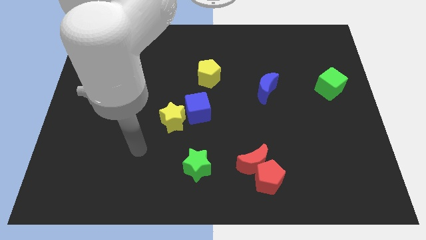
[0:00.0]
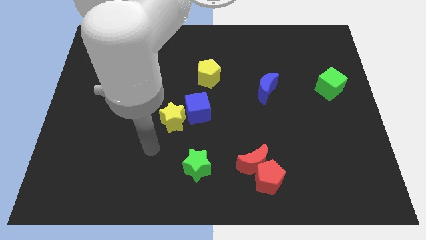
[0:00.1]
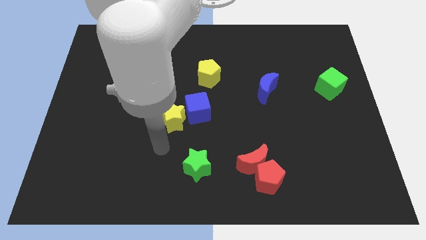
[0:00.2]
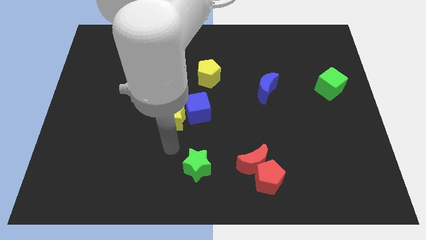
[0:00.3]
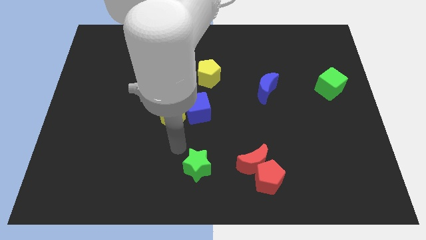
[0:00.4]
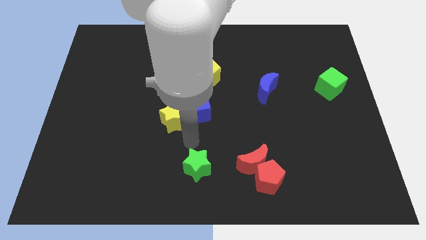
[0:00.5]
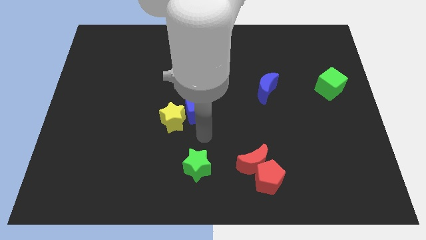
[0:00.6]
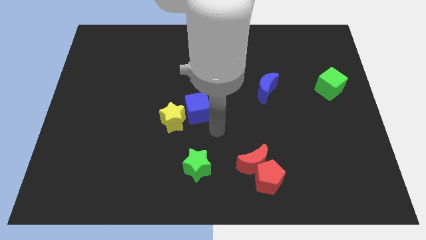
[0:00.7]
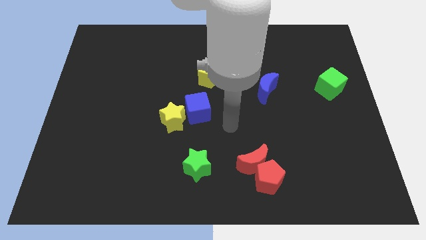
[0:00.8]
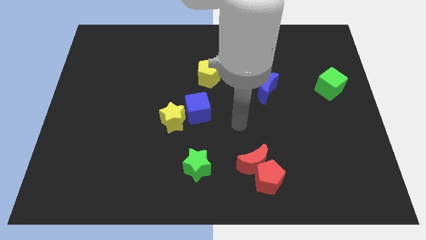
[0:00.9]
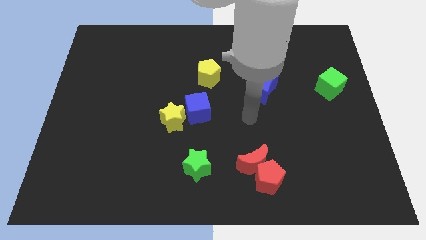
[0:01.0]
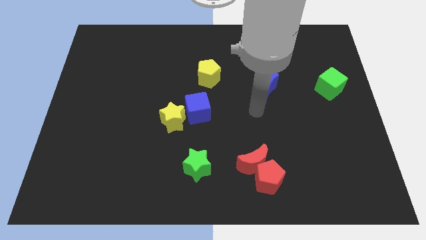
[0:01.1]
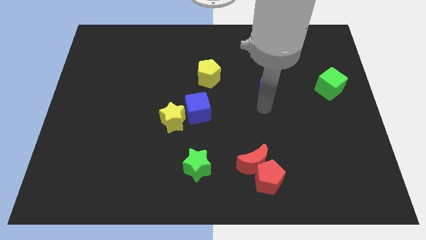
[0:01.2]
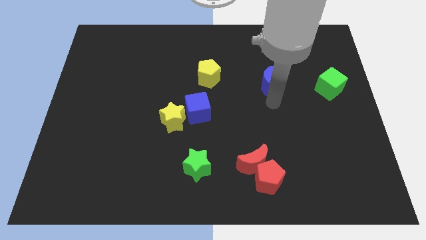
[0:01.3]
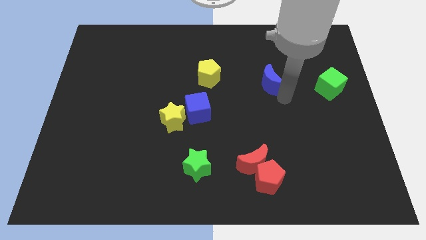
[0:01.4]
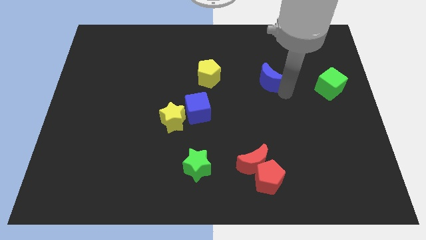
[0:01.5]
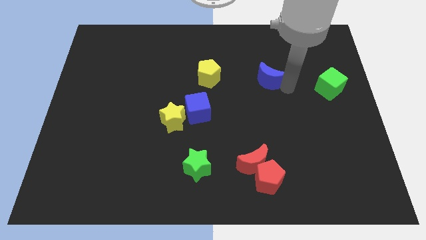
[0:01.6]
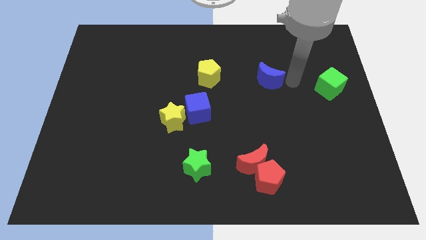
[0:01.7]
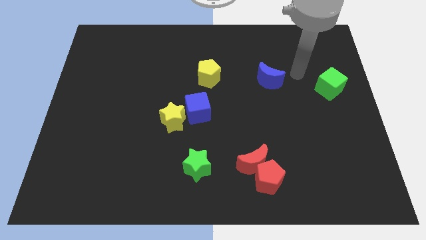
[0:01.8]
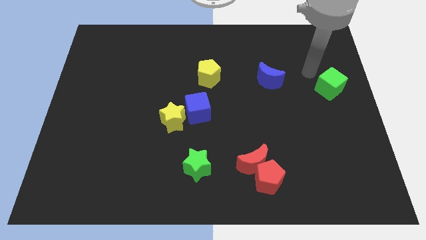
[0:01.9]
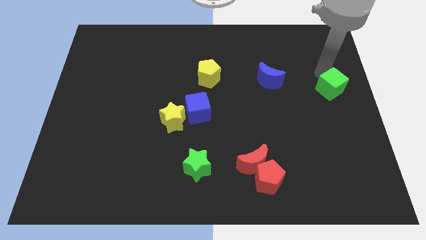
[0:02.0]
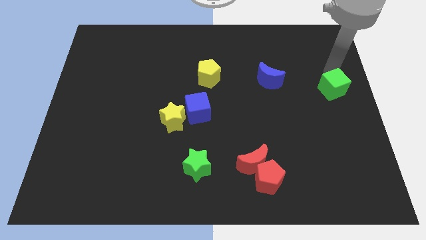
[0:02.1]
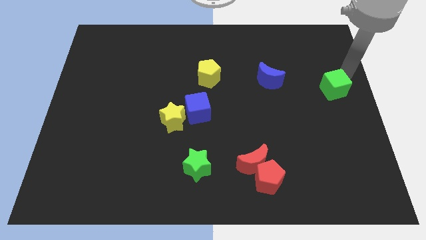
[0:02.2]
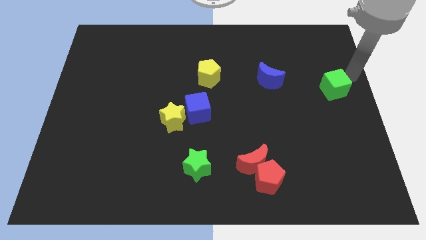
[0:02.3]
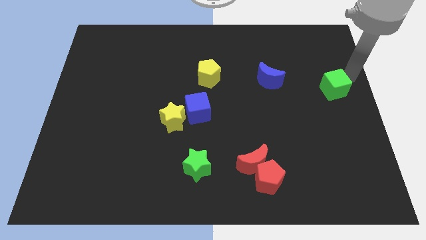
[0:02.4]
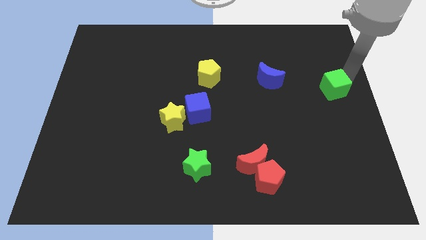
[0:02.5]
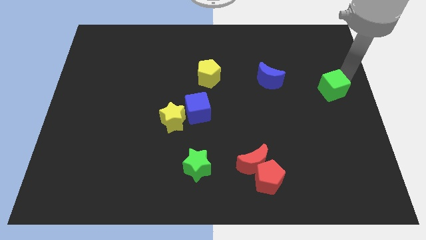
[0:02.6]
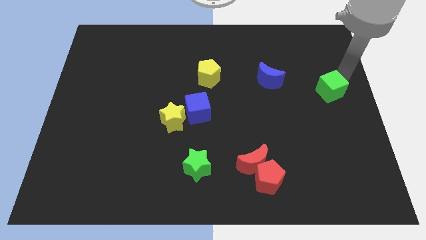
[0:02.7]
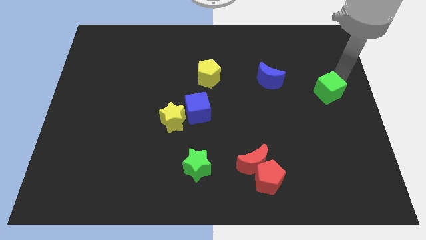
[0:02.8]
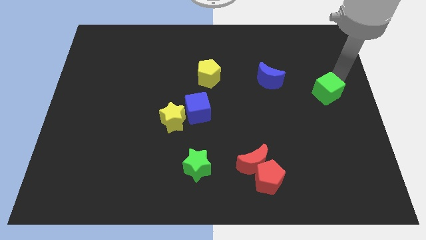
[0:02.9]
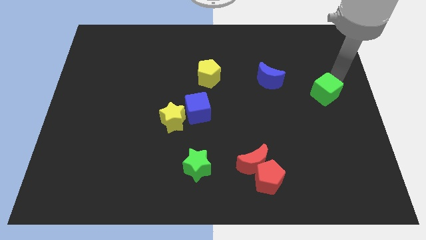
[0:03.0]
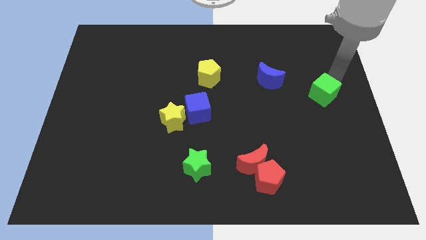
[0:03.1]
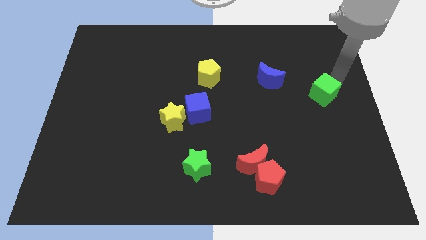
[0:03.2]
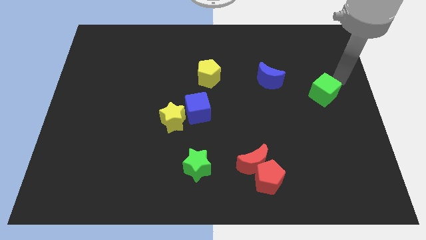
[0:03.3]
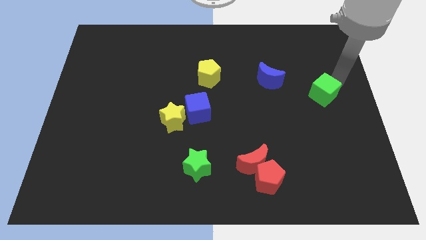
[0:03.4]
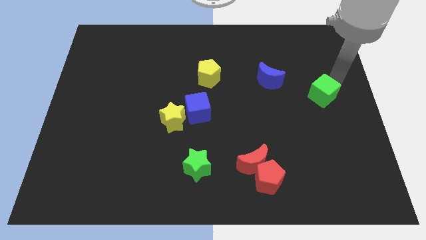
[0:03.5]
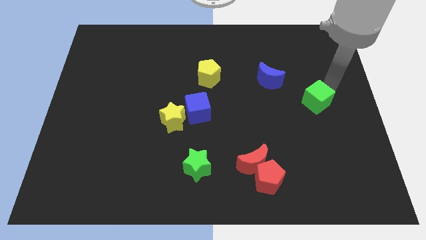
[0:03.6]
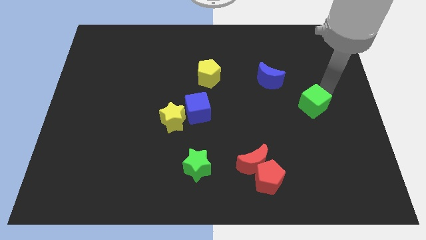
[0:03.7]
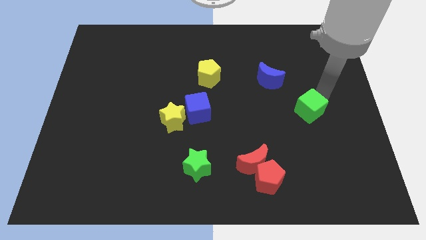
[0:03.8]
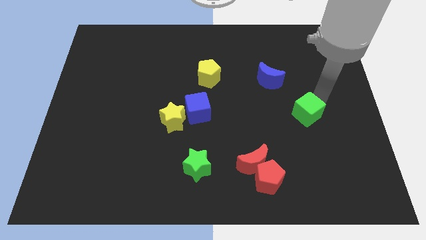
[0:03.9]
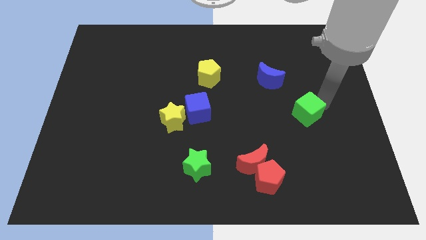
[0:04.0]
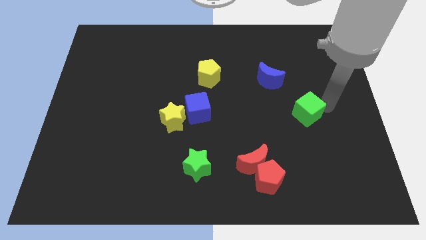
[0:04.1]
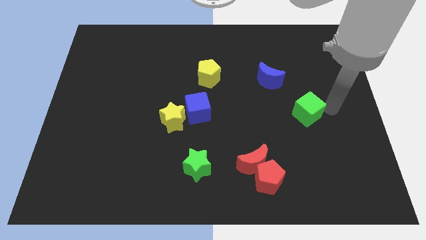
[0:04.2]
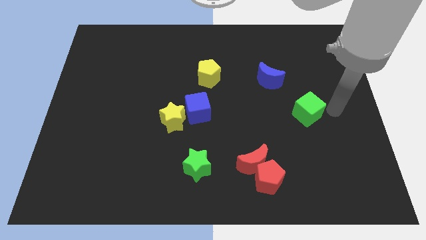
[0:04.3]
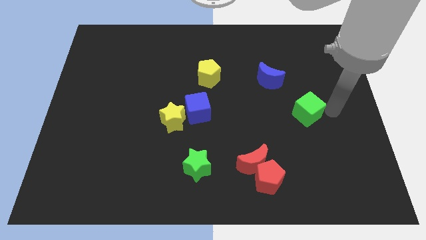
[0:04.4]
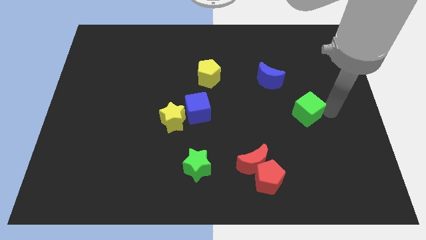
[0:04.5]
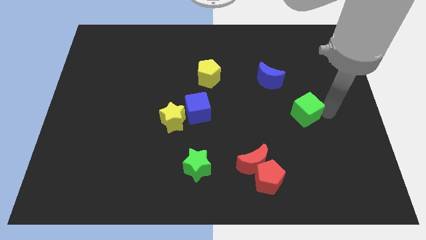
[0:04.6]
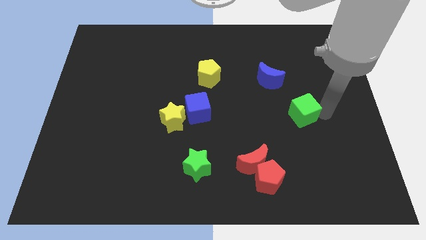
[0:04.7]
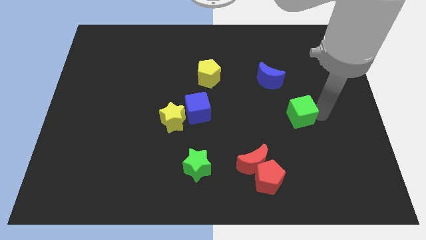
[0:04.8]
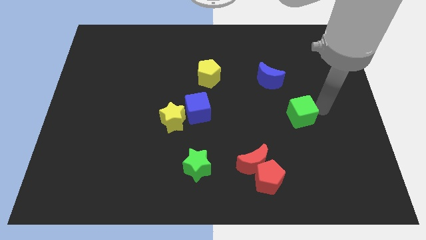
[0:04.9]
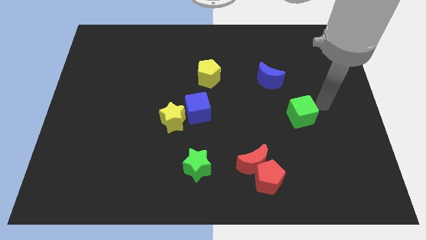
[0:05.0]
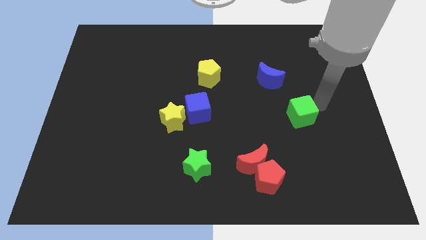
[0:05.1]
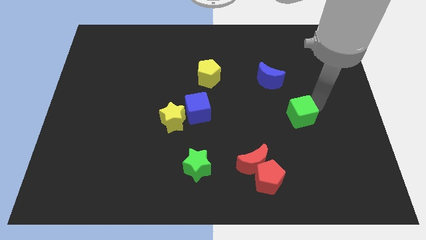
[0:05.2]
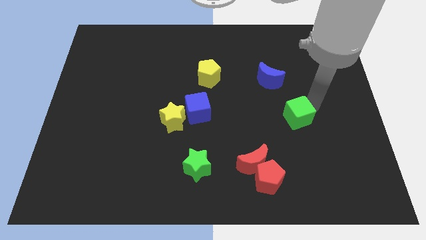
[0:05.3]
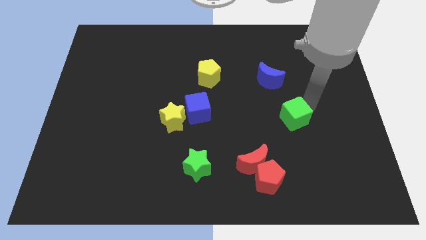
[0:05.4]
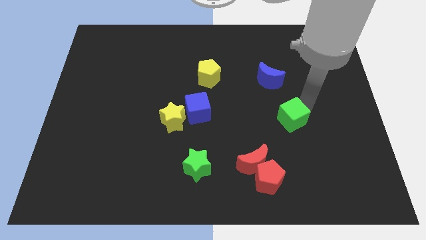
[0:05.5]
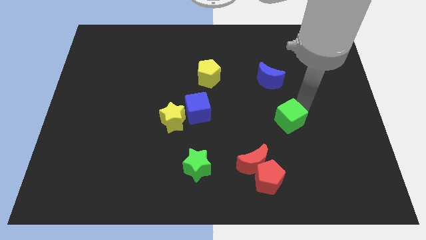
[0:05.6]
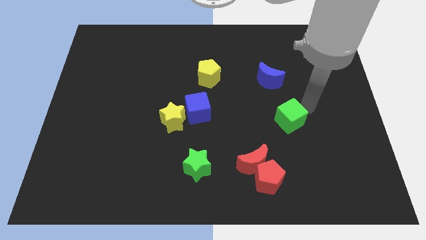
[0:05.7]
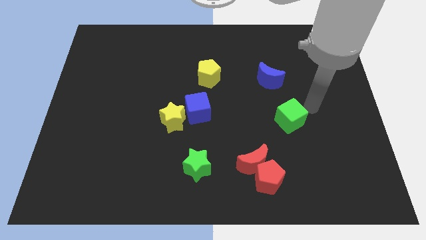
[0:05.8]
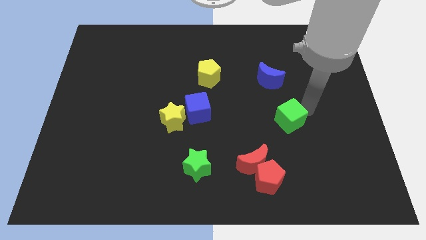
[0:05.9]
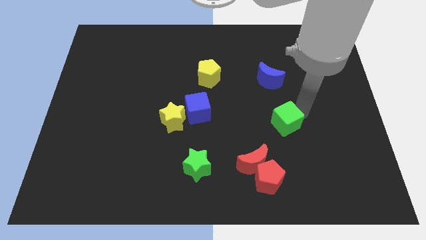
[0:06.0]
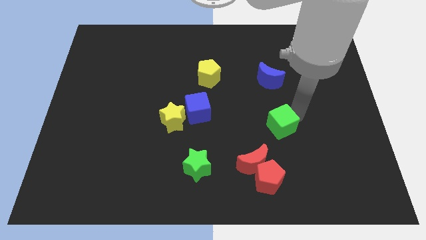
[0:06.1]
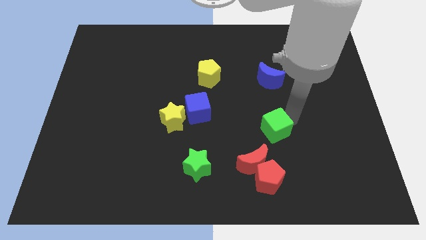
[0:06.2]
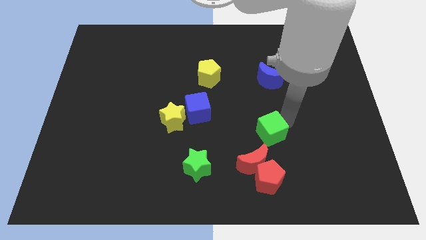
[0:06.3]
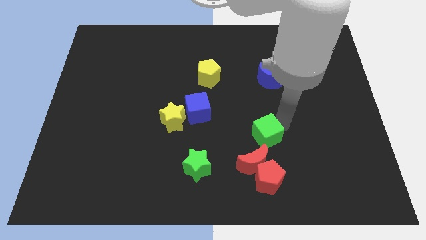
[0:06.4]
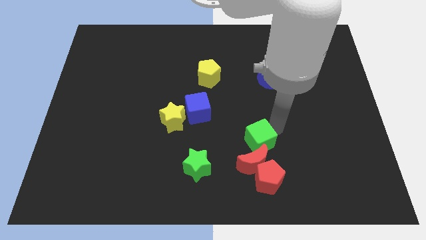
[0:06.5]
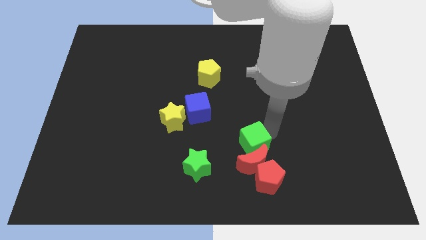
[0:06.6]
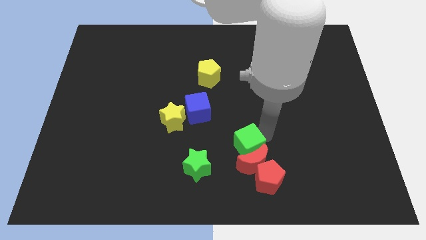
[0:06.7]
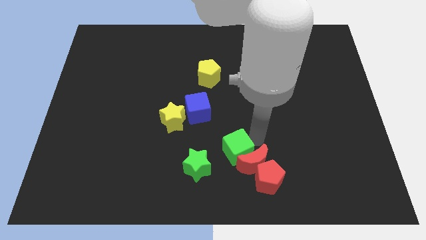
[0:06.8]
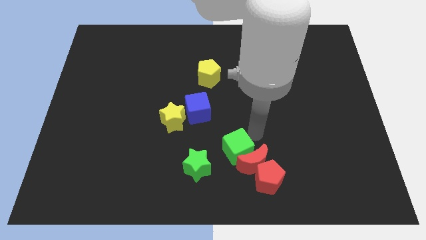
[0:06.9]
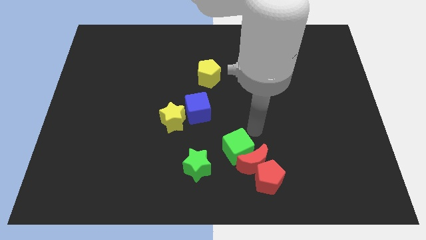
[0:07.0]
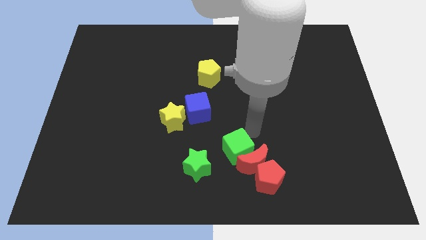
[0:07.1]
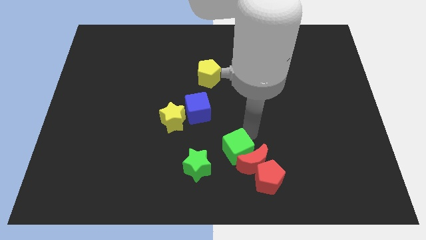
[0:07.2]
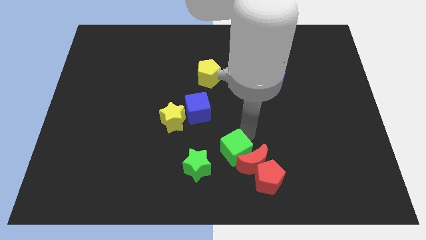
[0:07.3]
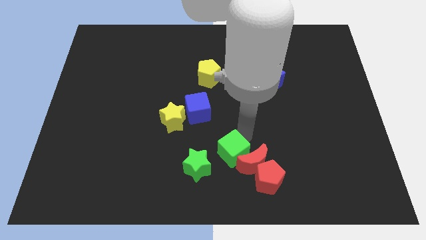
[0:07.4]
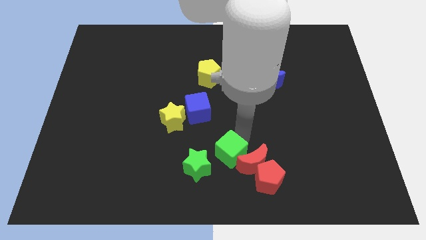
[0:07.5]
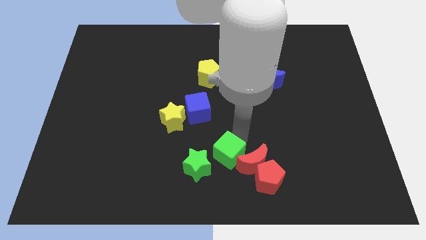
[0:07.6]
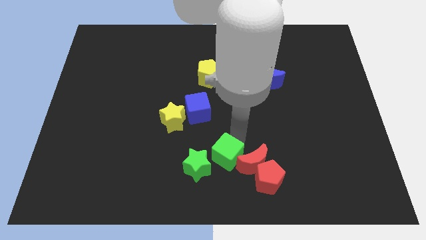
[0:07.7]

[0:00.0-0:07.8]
put the green cube to the bottom
